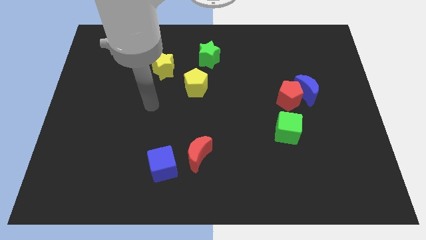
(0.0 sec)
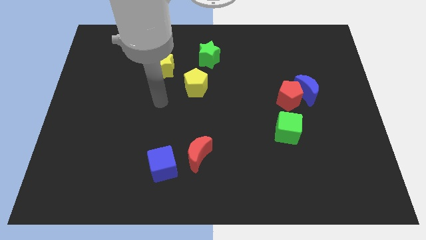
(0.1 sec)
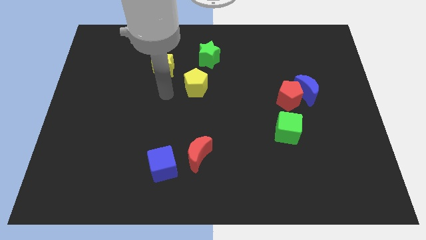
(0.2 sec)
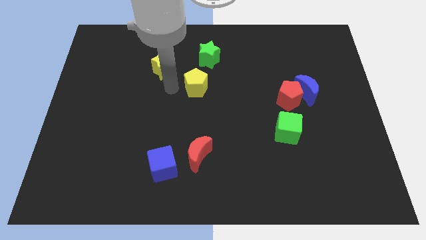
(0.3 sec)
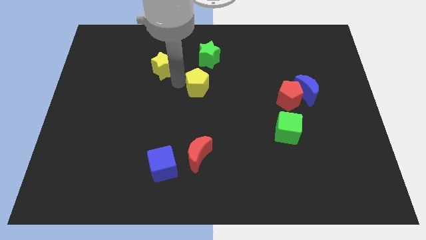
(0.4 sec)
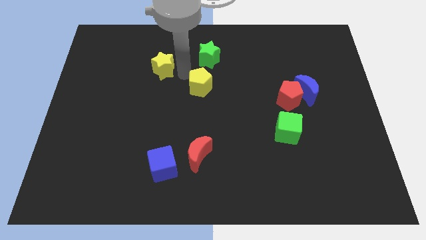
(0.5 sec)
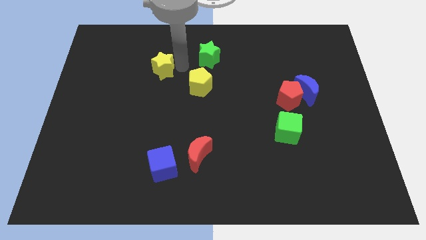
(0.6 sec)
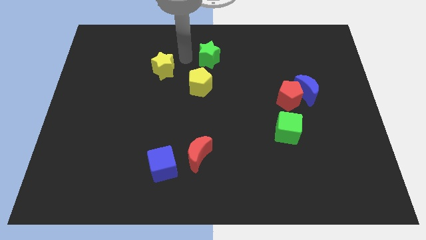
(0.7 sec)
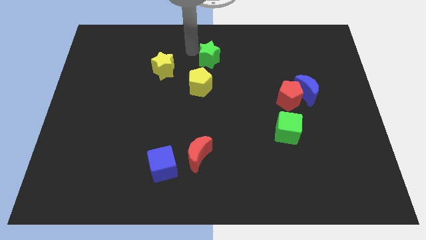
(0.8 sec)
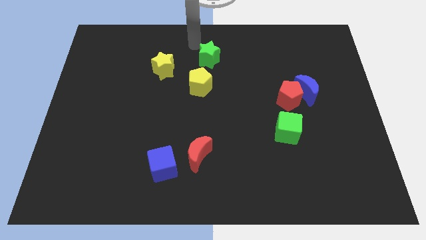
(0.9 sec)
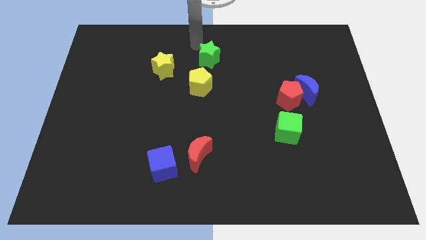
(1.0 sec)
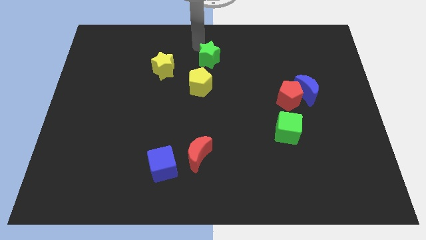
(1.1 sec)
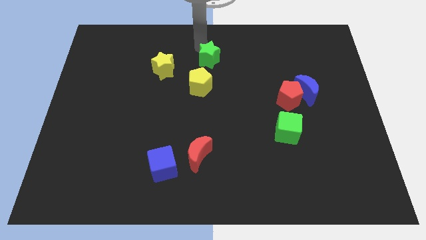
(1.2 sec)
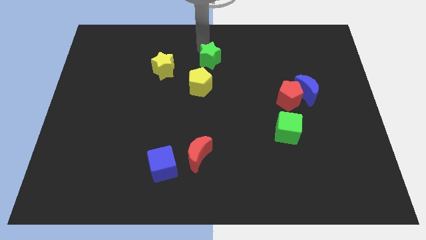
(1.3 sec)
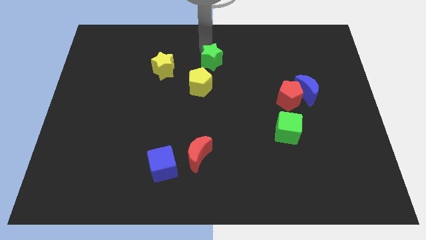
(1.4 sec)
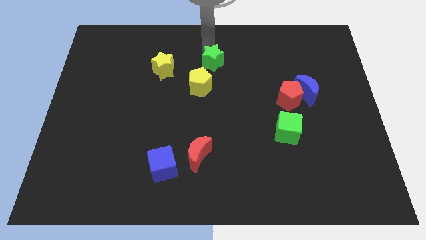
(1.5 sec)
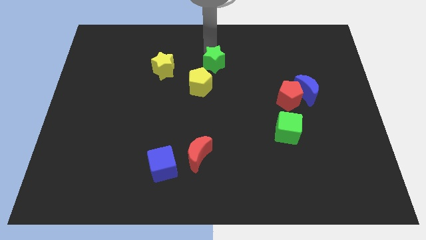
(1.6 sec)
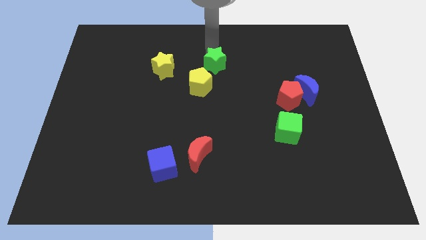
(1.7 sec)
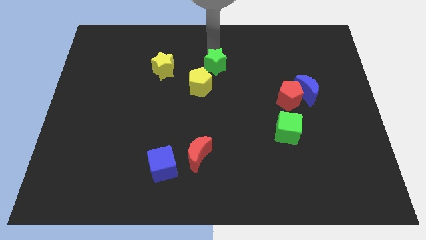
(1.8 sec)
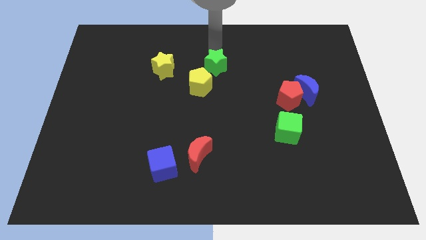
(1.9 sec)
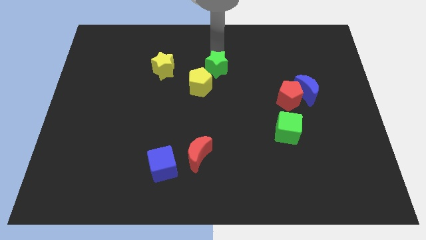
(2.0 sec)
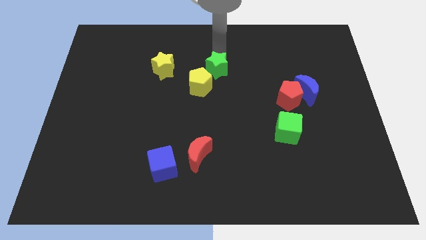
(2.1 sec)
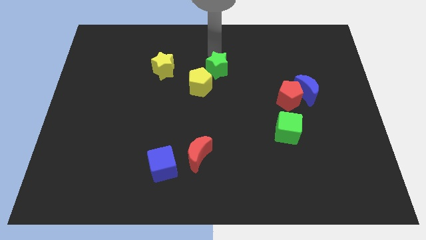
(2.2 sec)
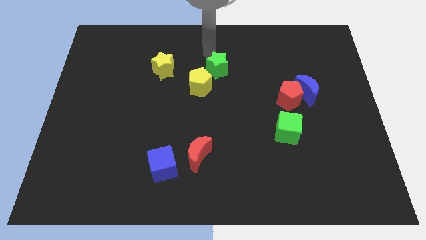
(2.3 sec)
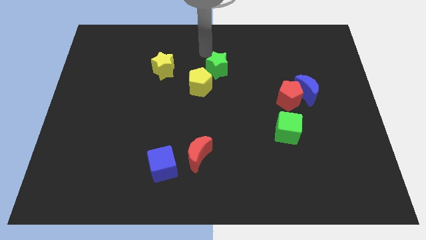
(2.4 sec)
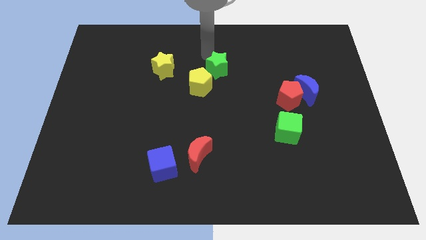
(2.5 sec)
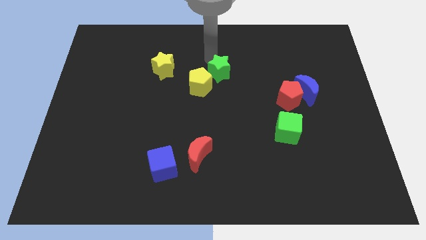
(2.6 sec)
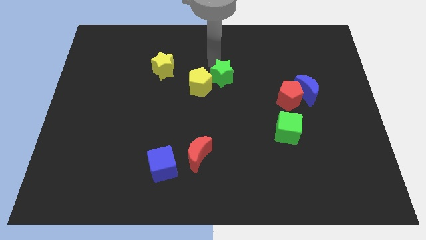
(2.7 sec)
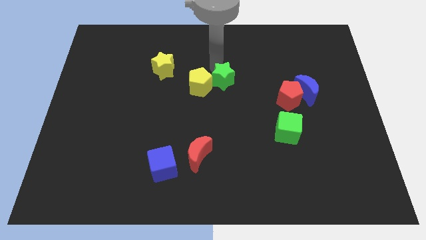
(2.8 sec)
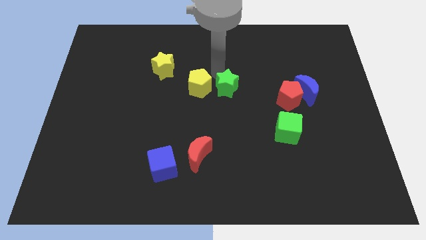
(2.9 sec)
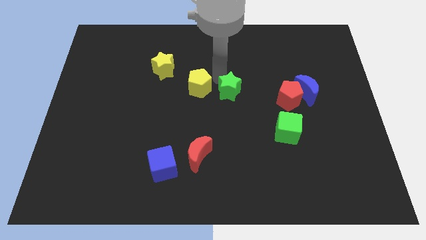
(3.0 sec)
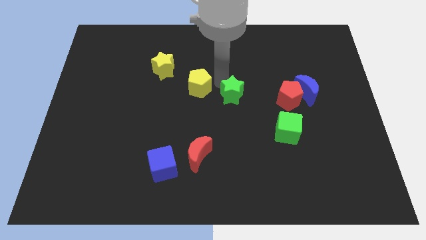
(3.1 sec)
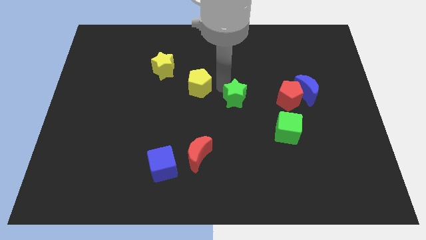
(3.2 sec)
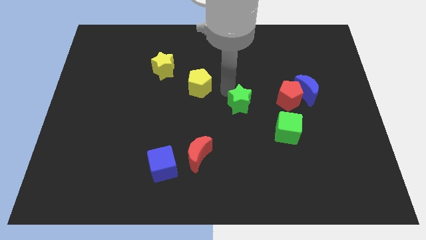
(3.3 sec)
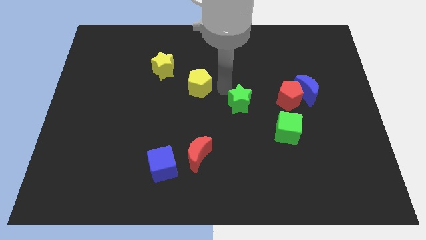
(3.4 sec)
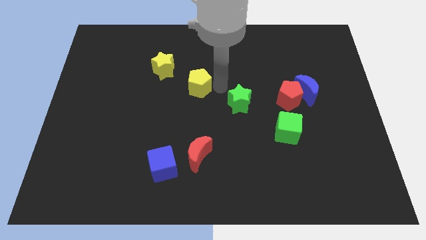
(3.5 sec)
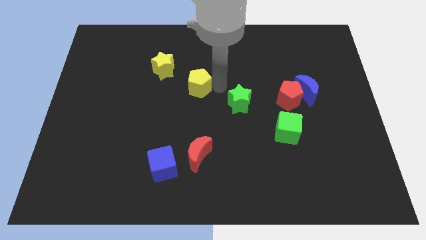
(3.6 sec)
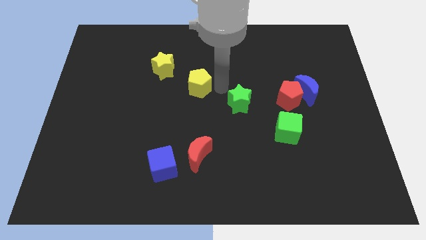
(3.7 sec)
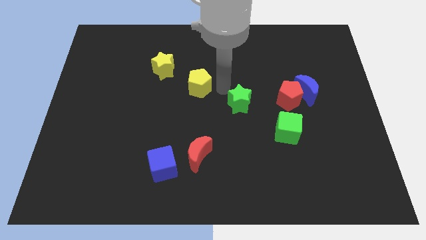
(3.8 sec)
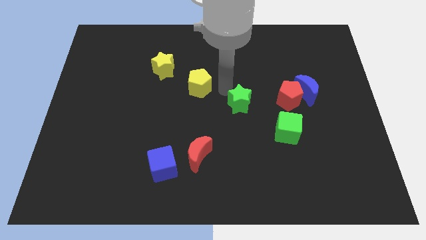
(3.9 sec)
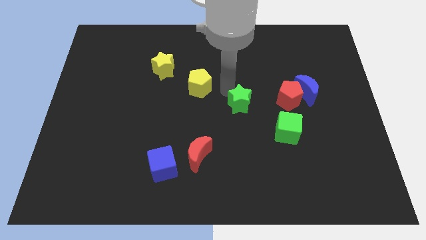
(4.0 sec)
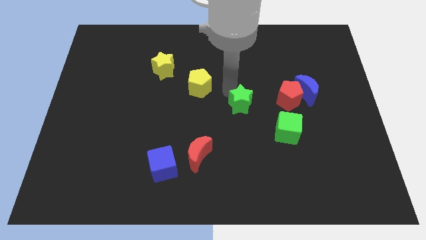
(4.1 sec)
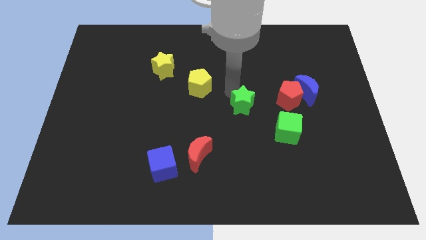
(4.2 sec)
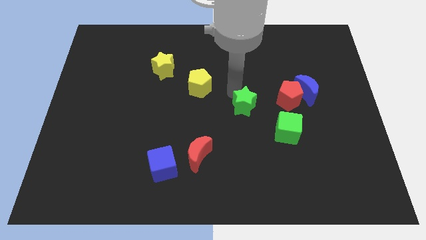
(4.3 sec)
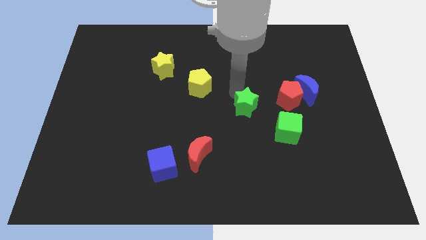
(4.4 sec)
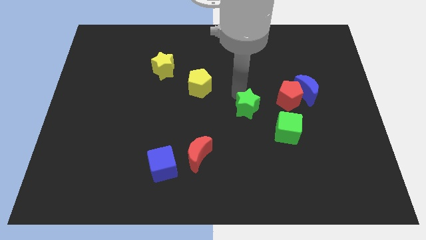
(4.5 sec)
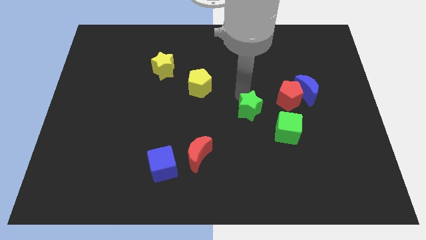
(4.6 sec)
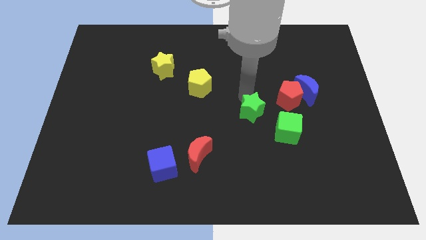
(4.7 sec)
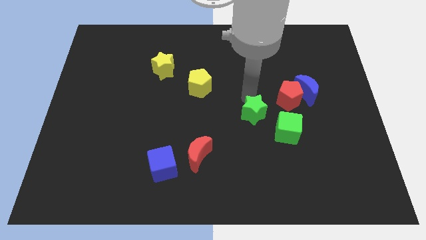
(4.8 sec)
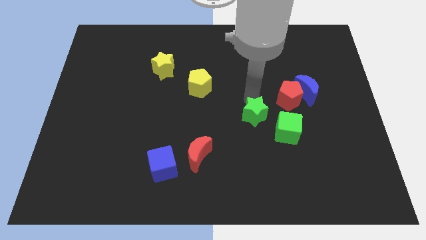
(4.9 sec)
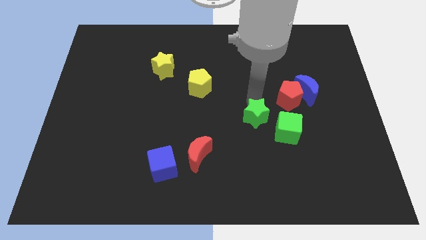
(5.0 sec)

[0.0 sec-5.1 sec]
slide the green star diagonally downwards and right

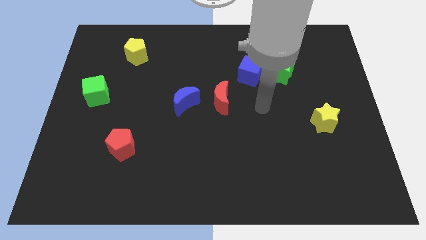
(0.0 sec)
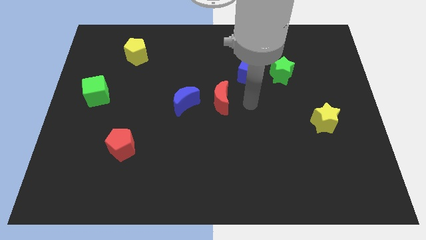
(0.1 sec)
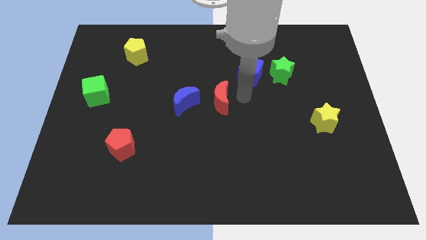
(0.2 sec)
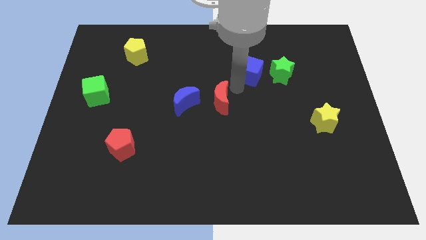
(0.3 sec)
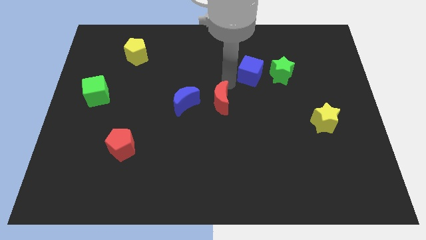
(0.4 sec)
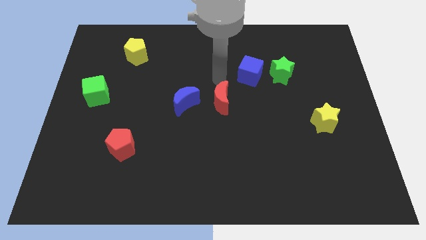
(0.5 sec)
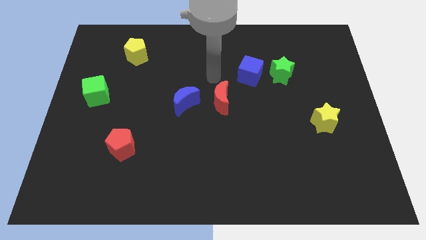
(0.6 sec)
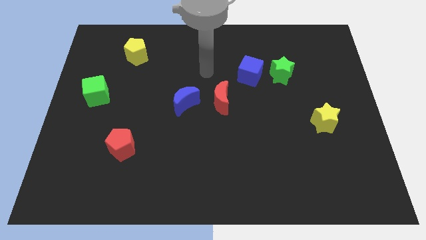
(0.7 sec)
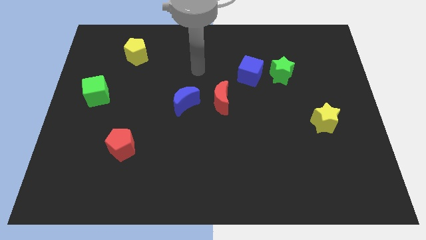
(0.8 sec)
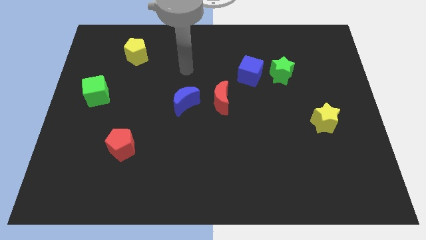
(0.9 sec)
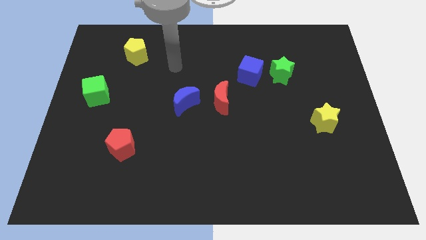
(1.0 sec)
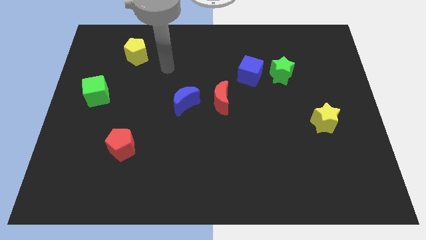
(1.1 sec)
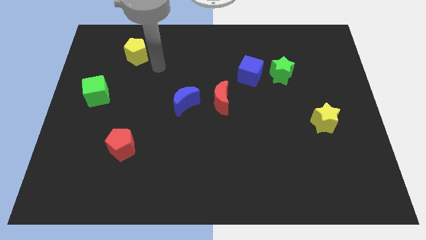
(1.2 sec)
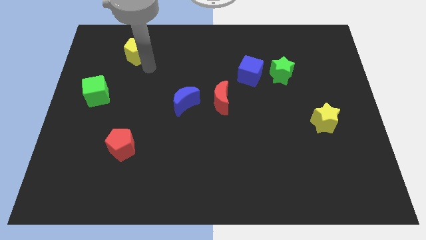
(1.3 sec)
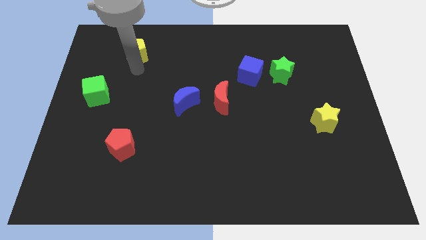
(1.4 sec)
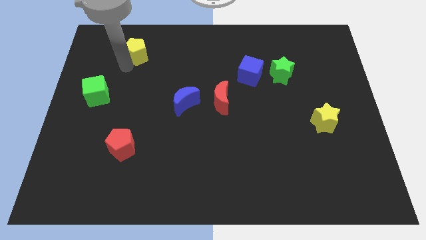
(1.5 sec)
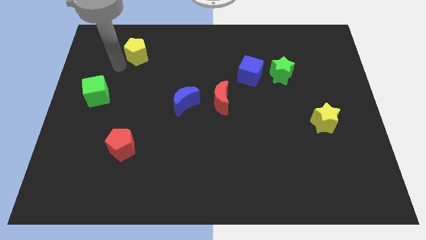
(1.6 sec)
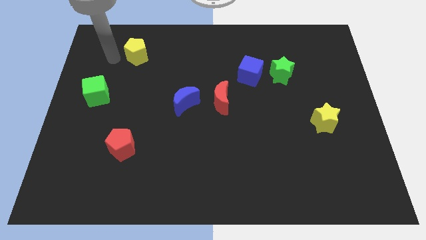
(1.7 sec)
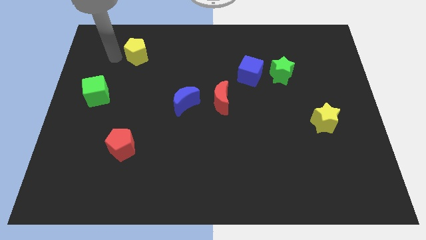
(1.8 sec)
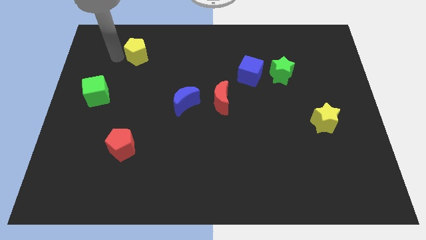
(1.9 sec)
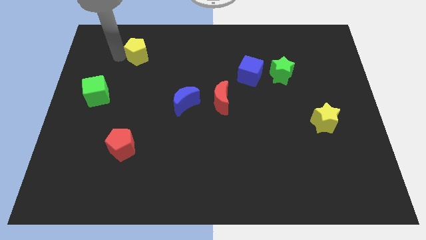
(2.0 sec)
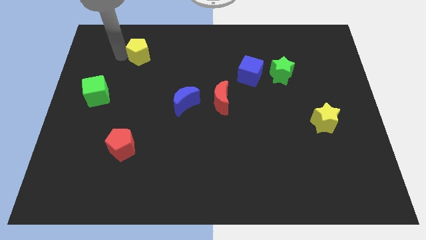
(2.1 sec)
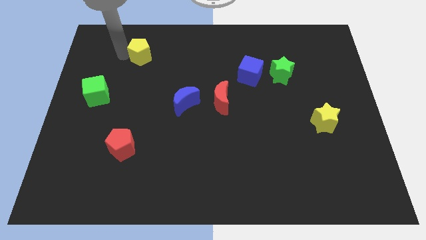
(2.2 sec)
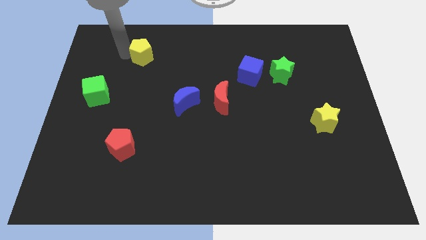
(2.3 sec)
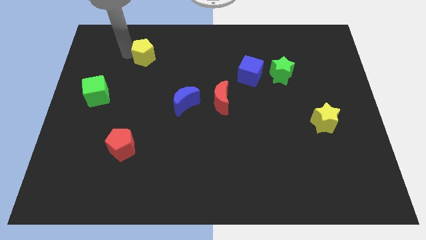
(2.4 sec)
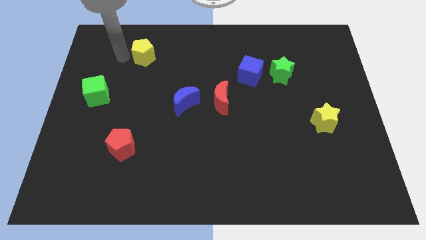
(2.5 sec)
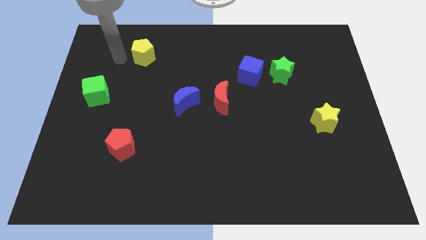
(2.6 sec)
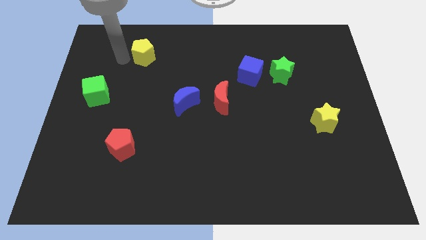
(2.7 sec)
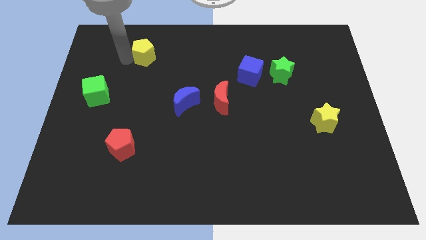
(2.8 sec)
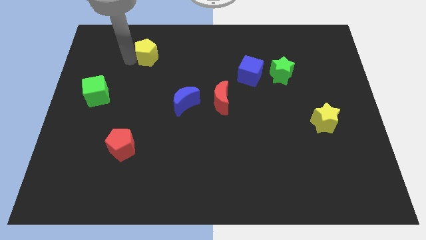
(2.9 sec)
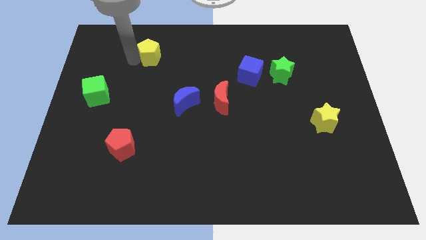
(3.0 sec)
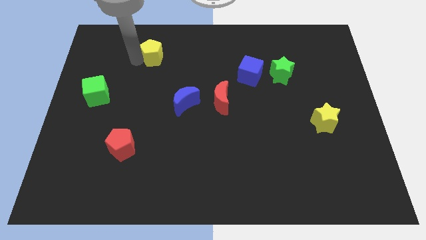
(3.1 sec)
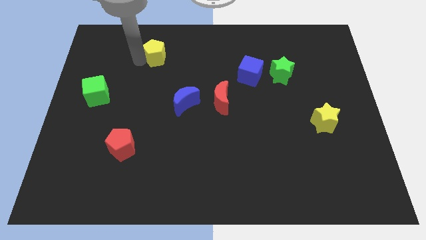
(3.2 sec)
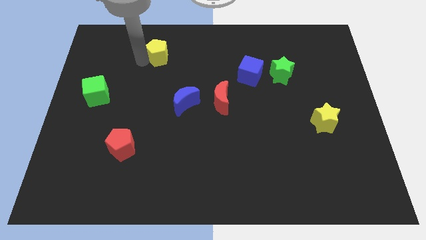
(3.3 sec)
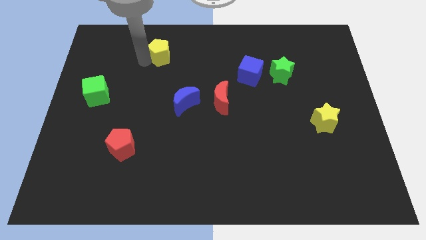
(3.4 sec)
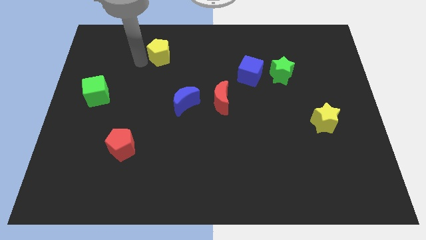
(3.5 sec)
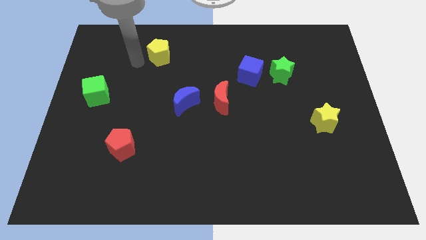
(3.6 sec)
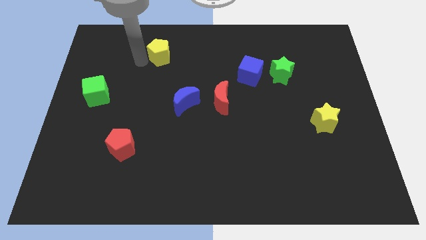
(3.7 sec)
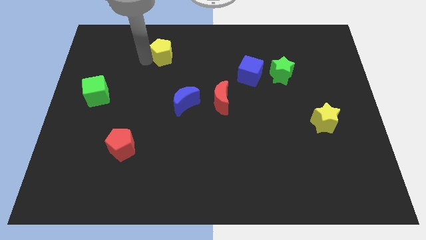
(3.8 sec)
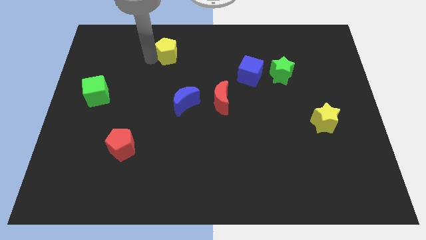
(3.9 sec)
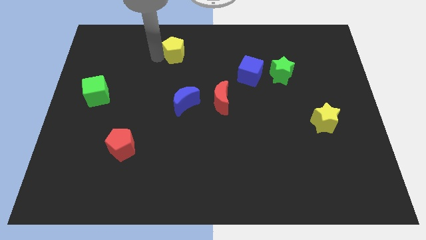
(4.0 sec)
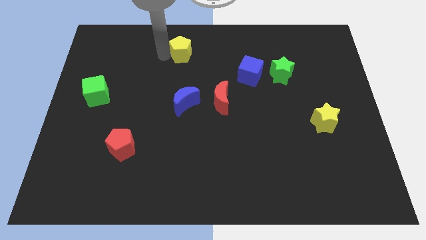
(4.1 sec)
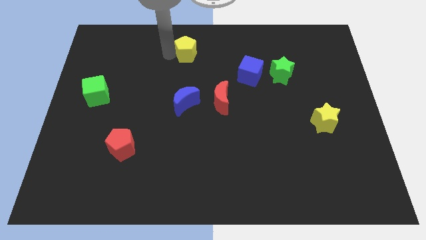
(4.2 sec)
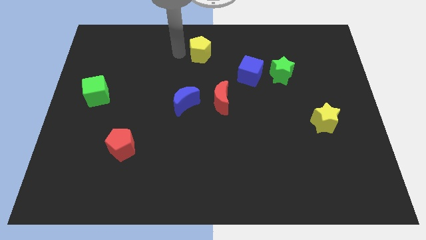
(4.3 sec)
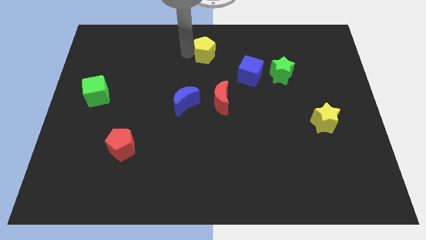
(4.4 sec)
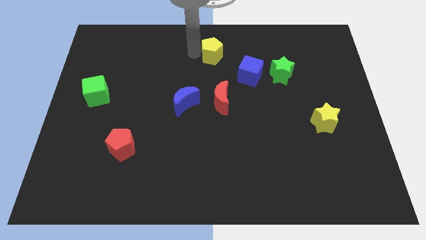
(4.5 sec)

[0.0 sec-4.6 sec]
push the yellow pentagon to the right
